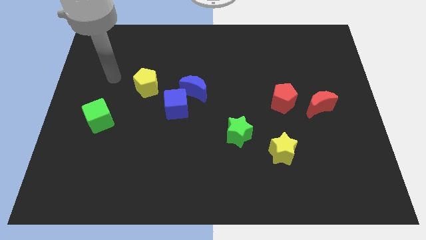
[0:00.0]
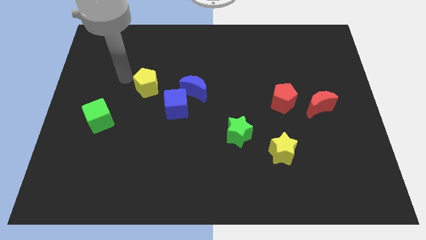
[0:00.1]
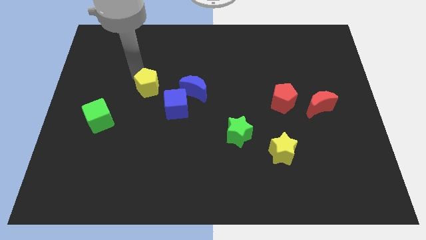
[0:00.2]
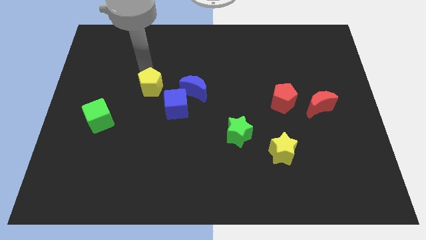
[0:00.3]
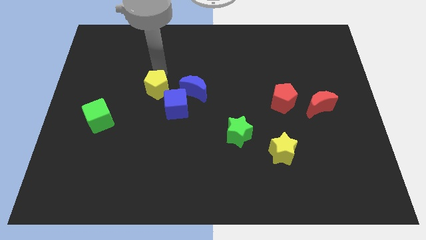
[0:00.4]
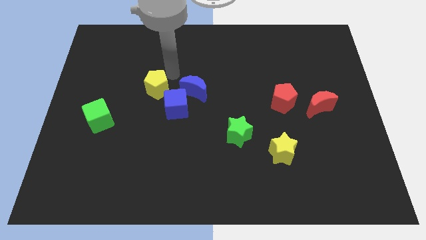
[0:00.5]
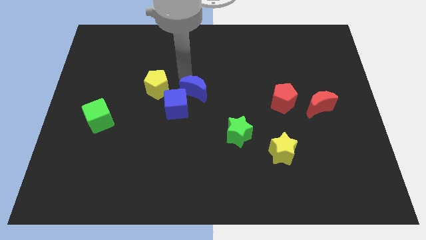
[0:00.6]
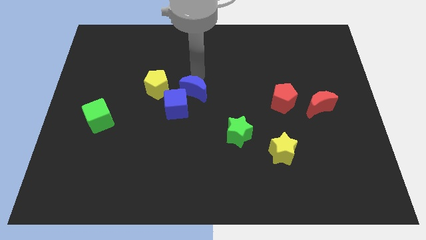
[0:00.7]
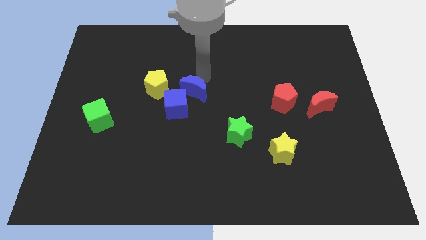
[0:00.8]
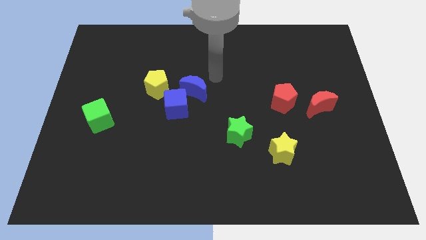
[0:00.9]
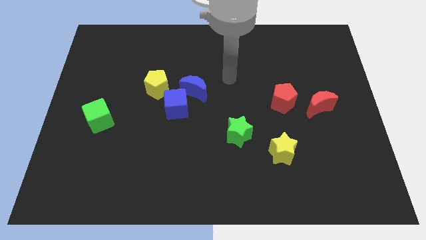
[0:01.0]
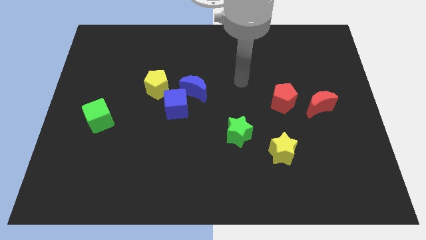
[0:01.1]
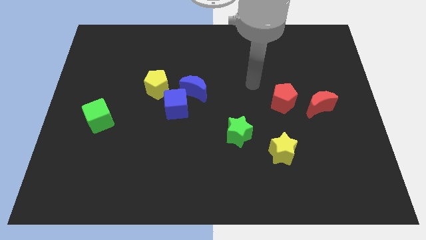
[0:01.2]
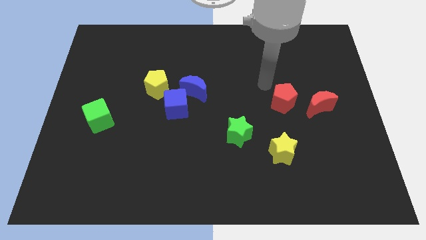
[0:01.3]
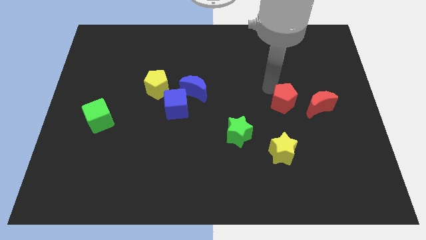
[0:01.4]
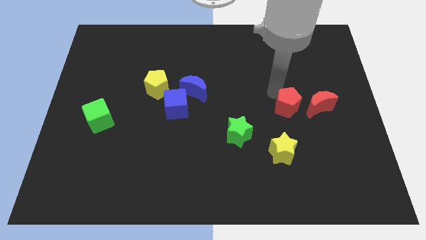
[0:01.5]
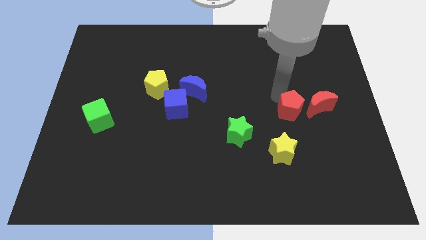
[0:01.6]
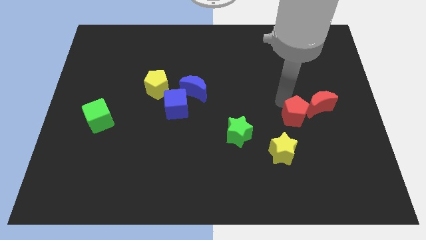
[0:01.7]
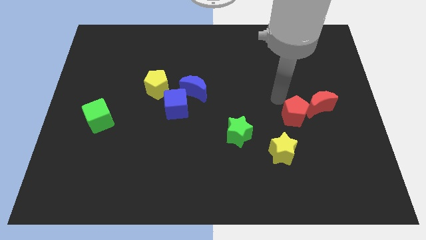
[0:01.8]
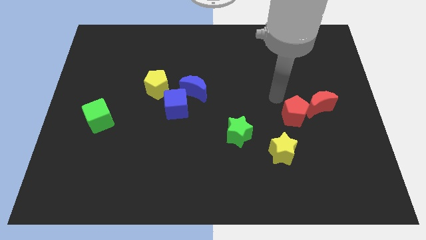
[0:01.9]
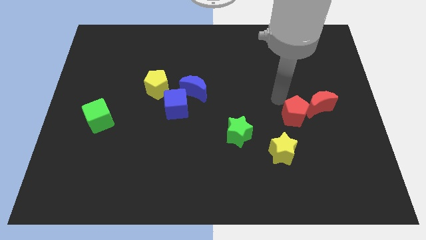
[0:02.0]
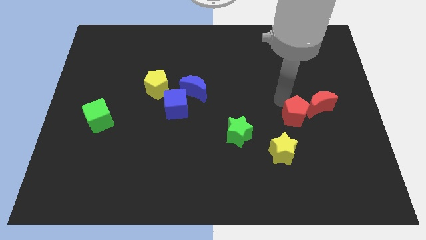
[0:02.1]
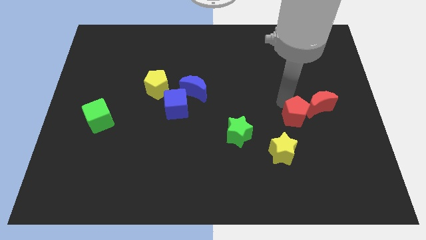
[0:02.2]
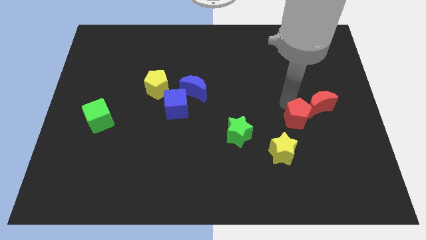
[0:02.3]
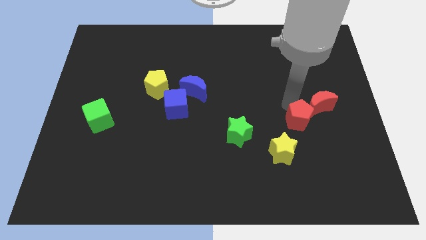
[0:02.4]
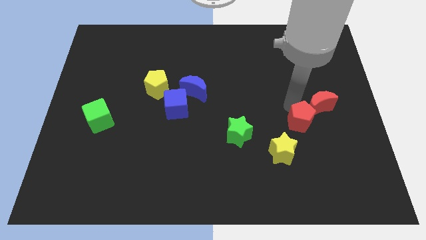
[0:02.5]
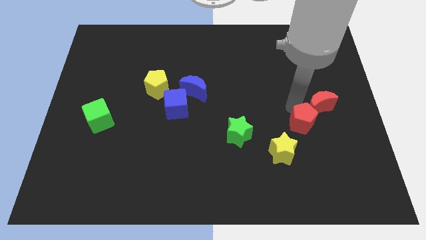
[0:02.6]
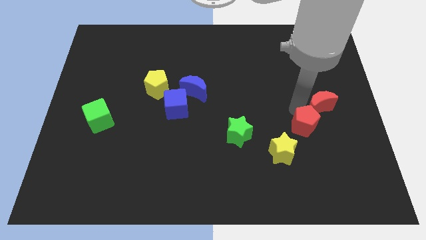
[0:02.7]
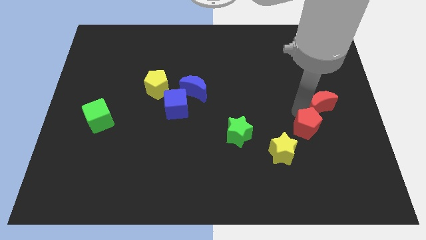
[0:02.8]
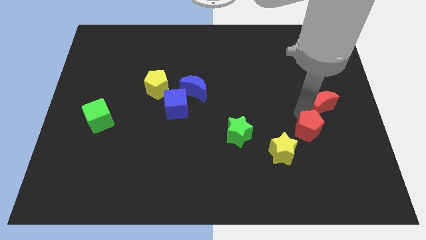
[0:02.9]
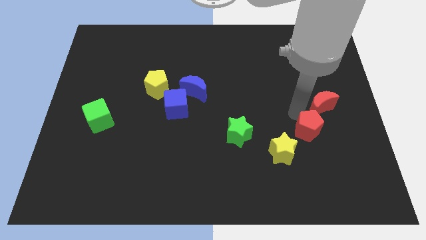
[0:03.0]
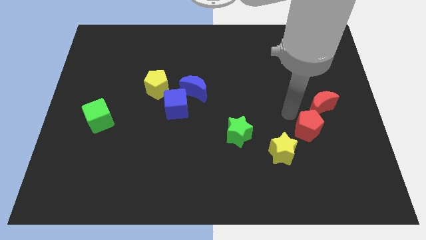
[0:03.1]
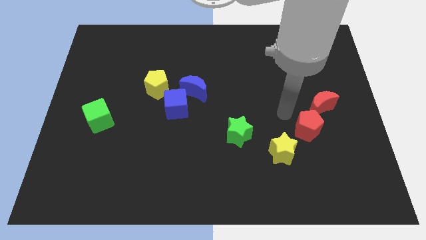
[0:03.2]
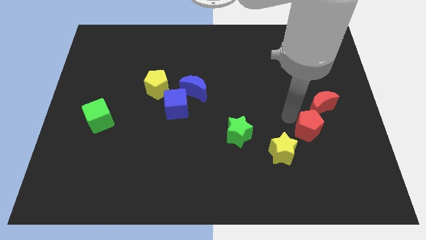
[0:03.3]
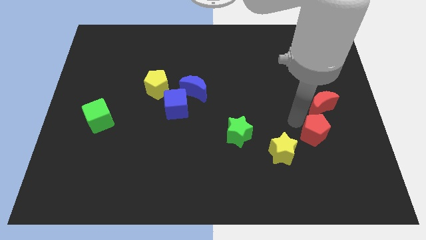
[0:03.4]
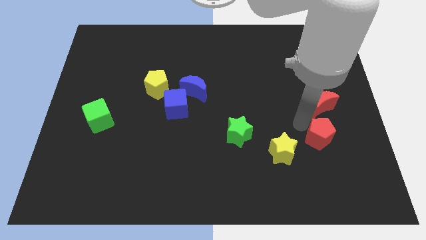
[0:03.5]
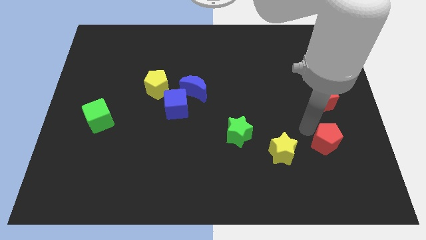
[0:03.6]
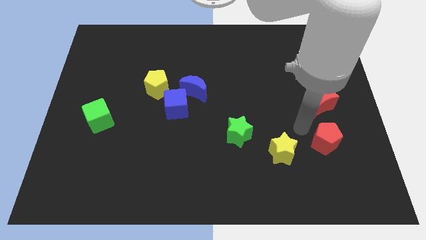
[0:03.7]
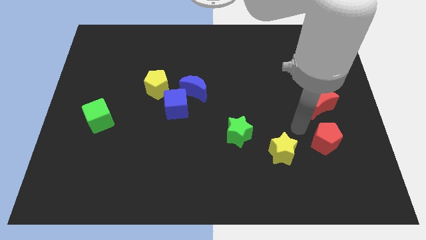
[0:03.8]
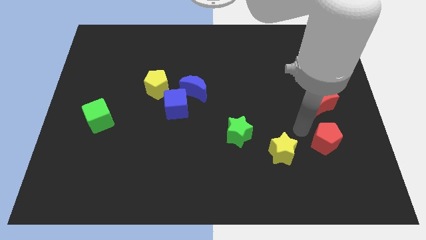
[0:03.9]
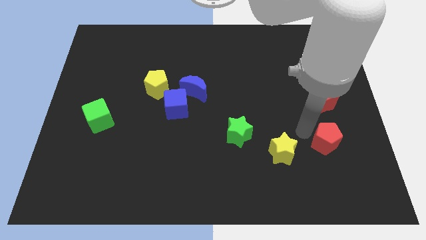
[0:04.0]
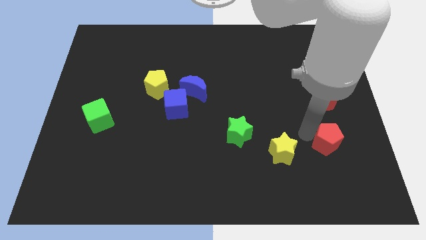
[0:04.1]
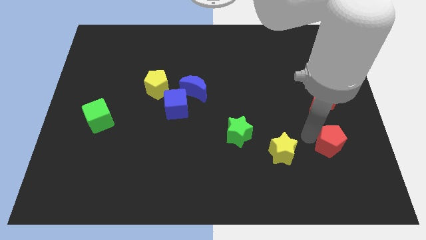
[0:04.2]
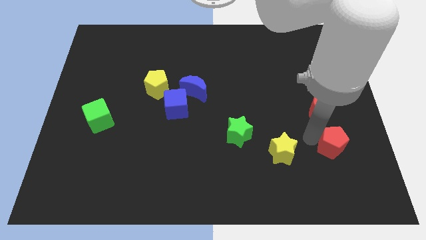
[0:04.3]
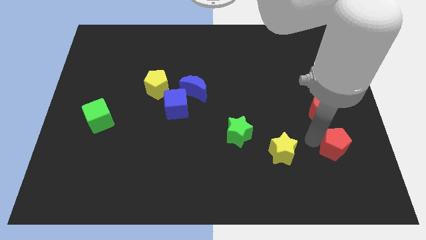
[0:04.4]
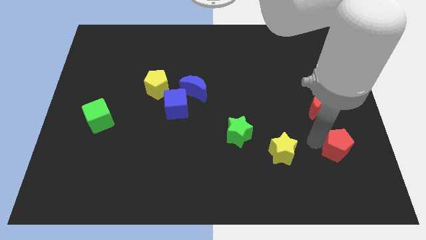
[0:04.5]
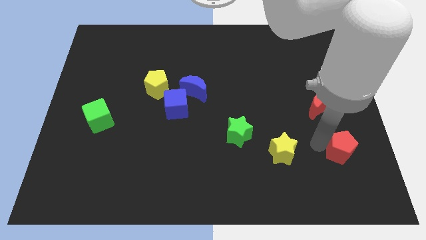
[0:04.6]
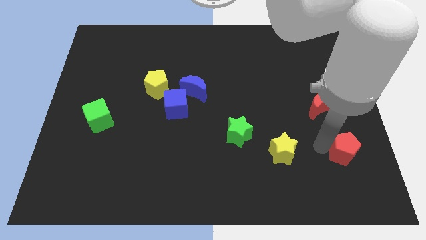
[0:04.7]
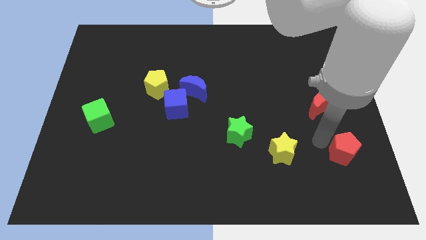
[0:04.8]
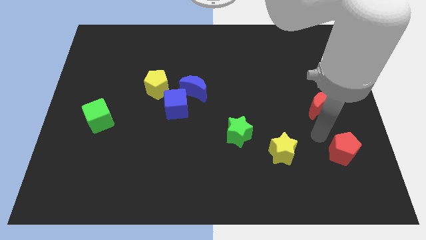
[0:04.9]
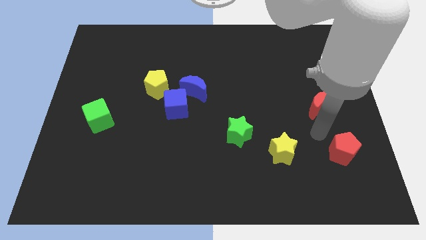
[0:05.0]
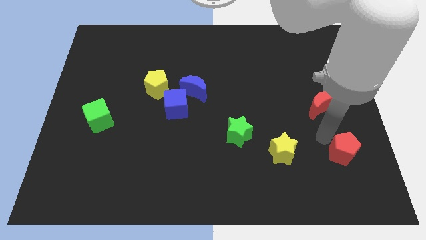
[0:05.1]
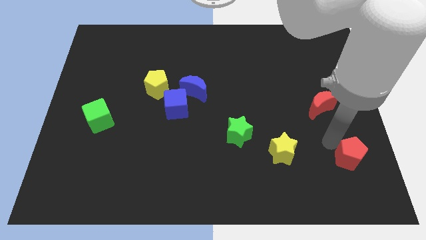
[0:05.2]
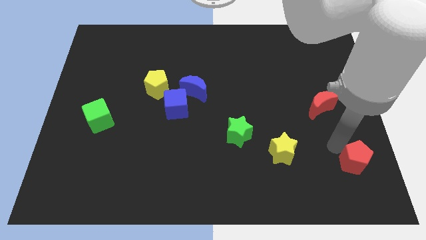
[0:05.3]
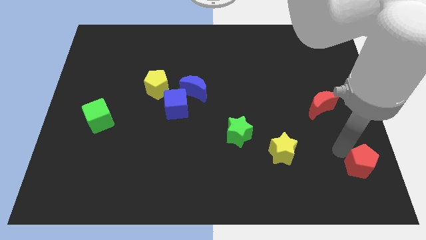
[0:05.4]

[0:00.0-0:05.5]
slide the red pentagon to the bottom right corner
